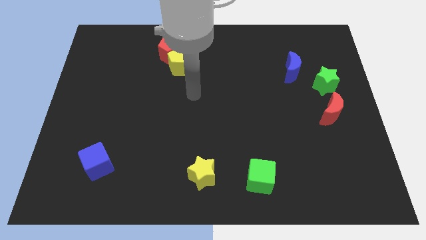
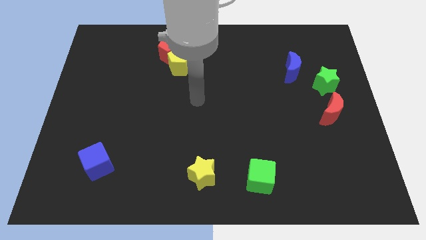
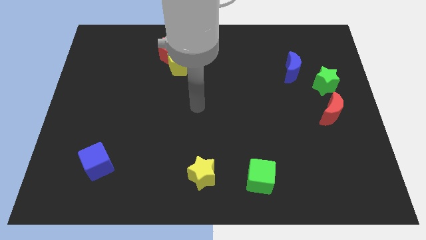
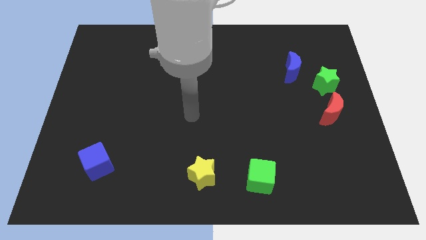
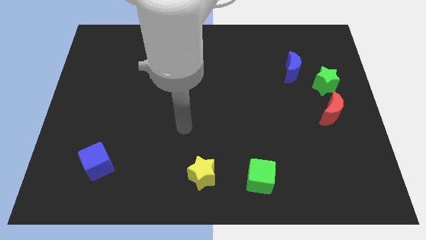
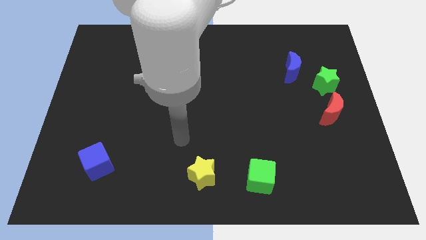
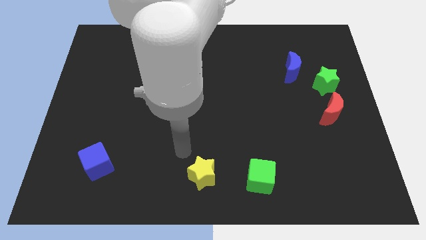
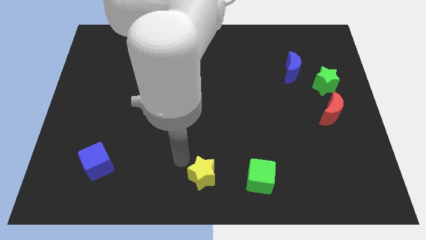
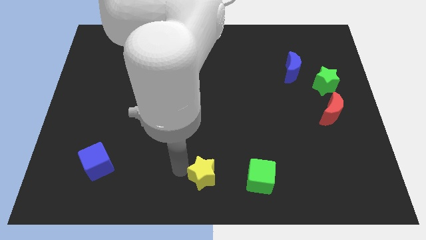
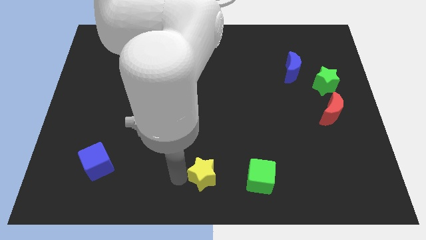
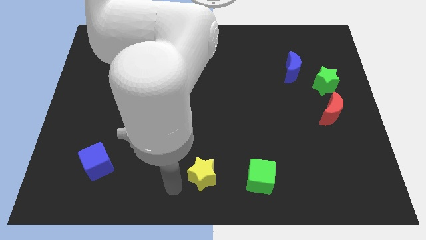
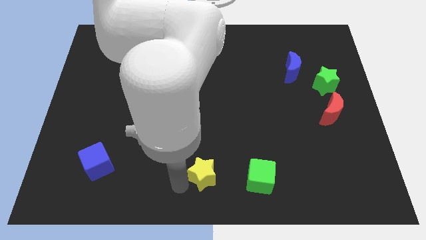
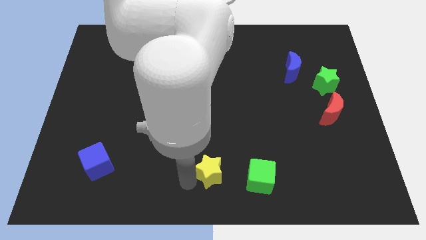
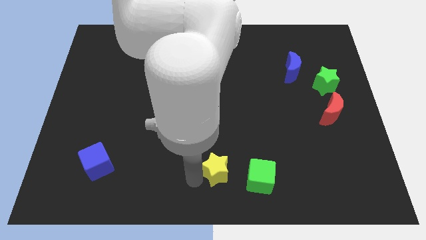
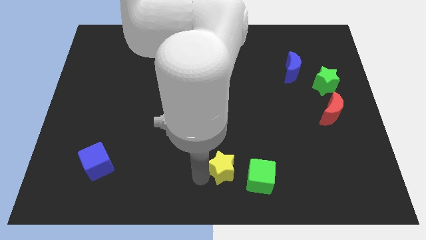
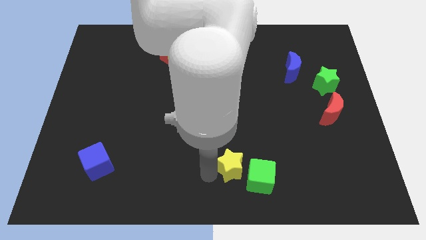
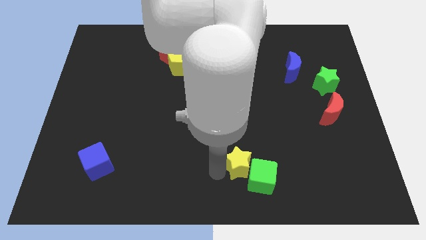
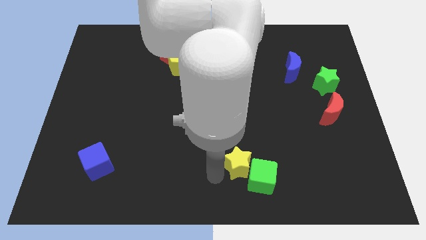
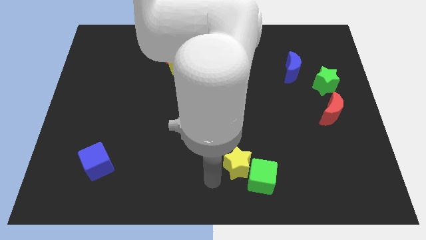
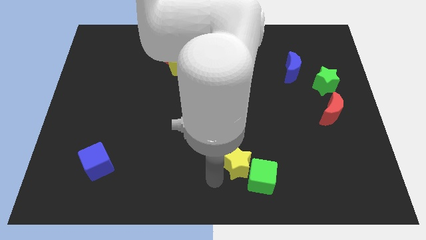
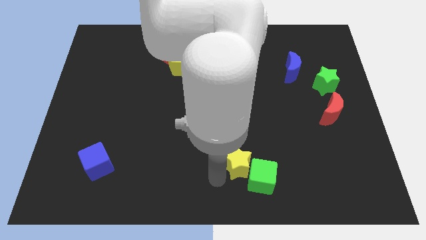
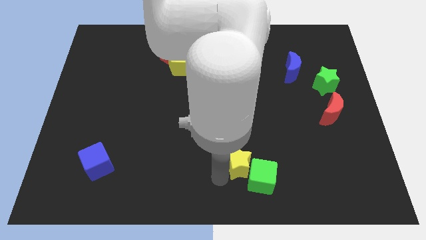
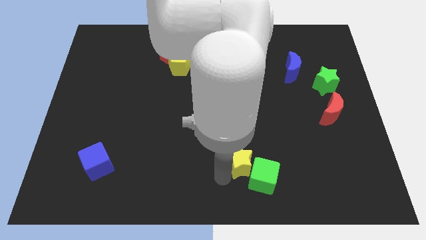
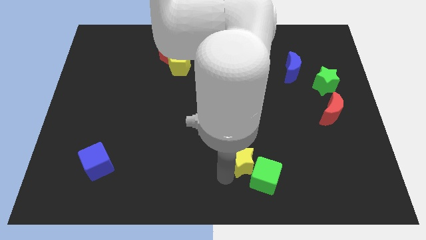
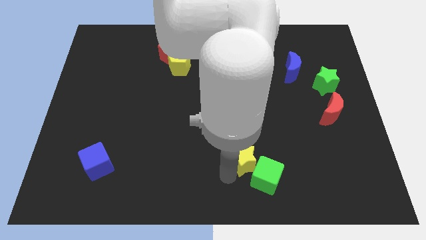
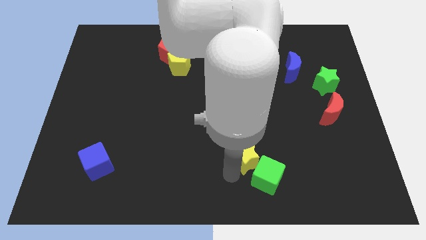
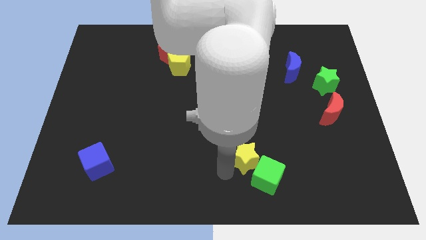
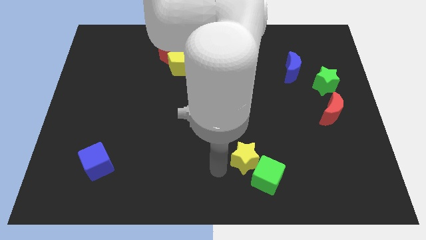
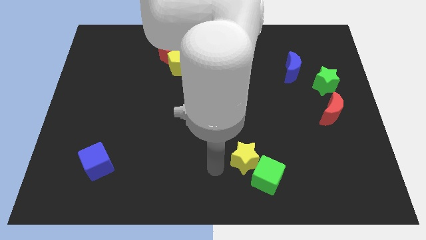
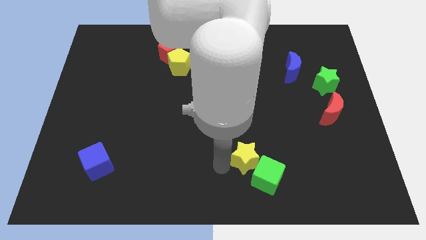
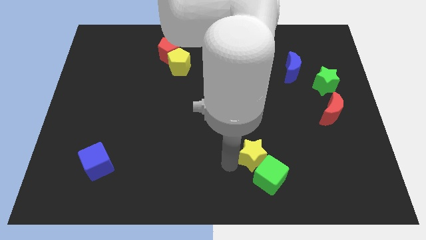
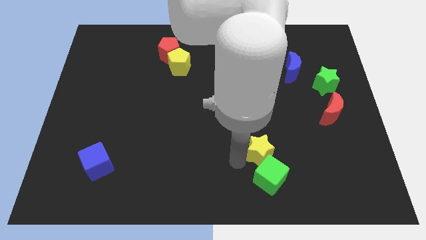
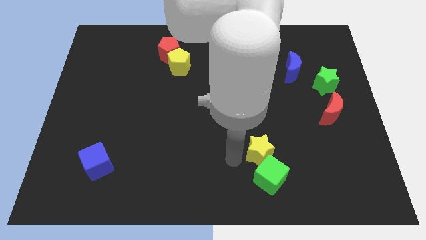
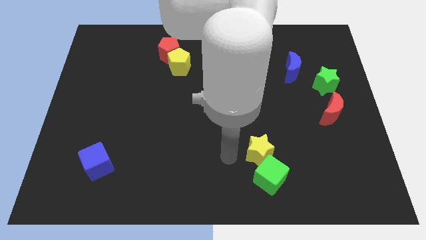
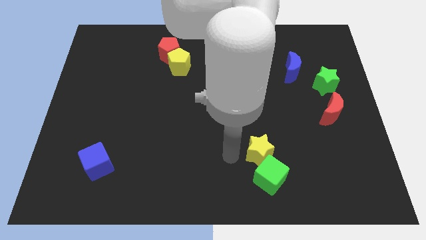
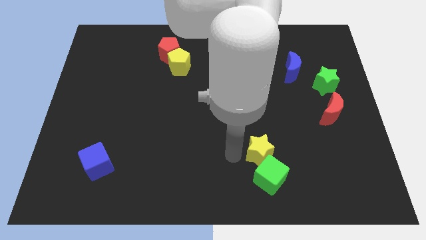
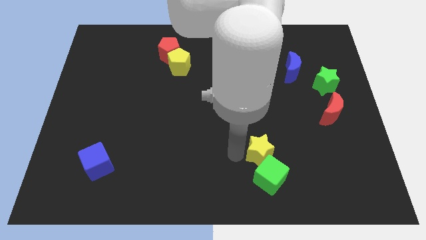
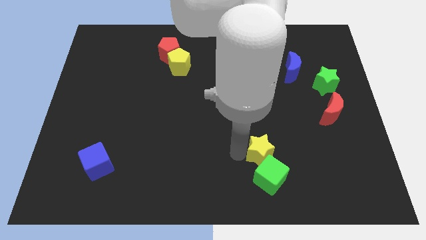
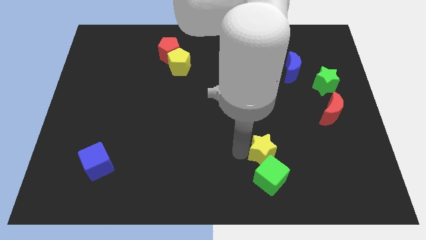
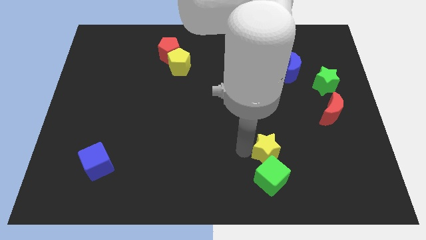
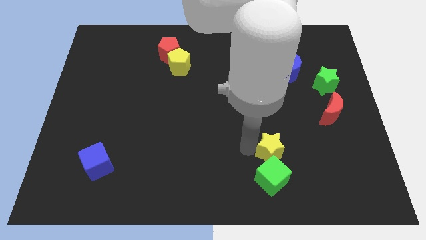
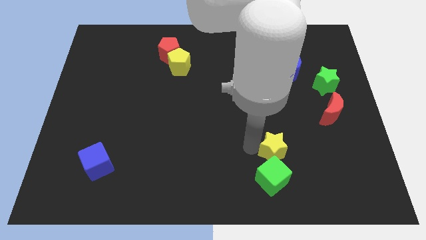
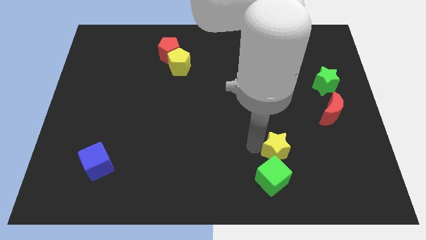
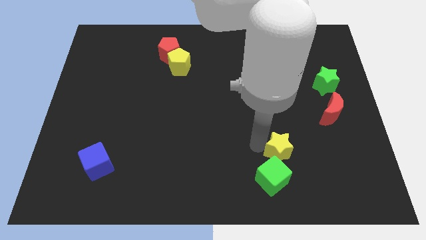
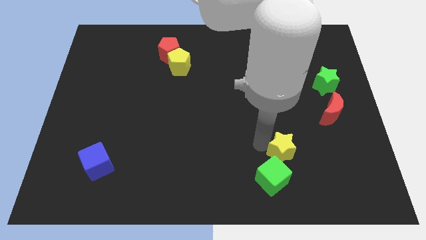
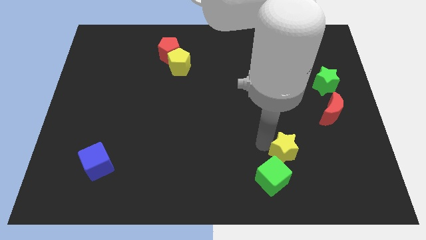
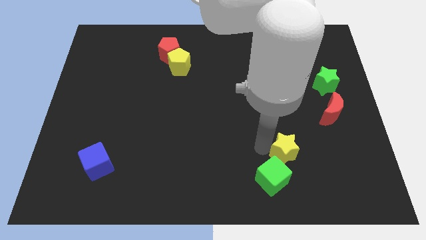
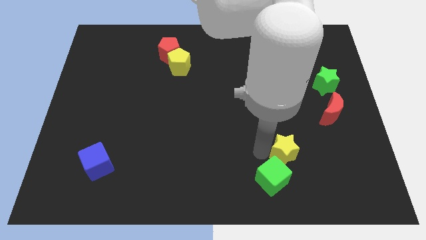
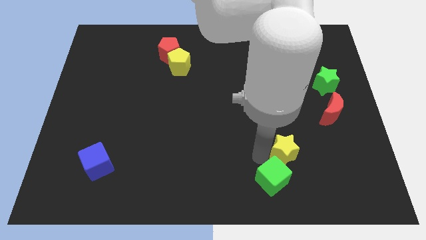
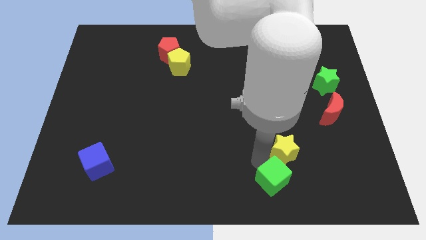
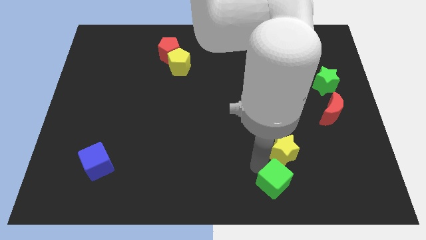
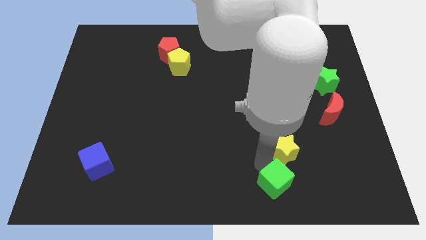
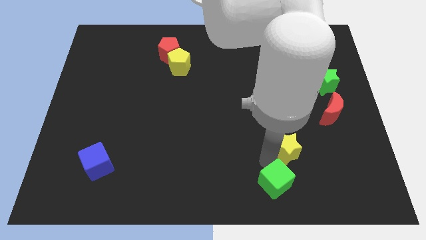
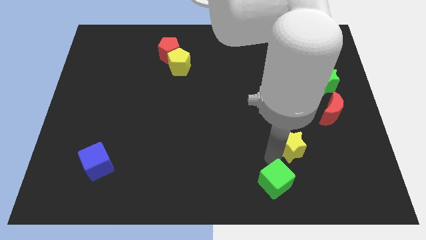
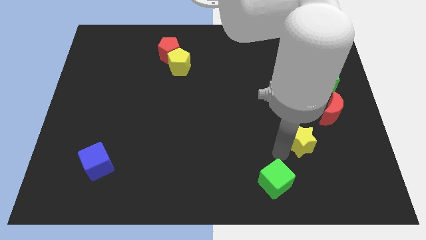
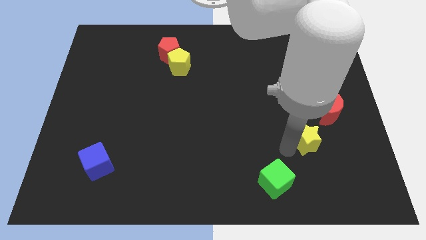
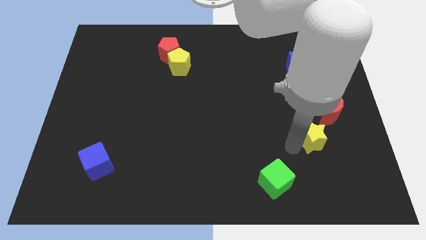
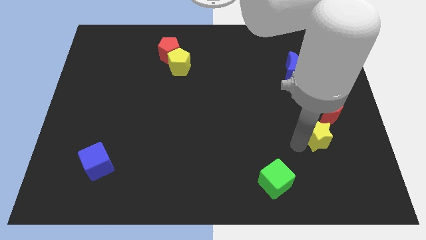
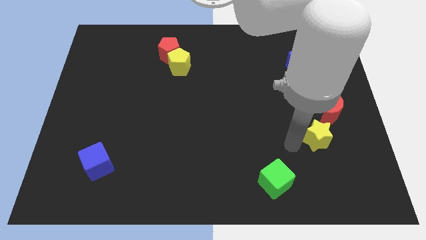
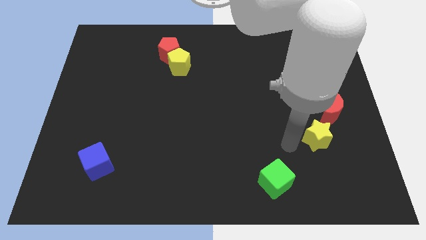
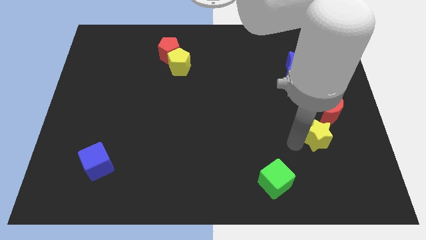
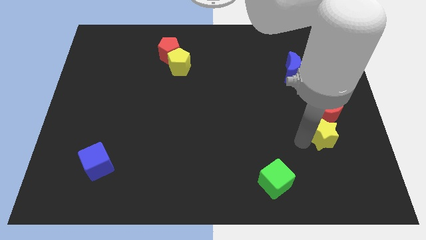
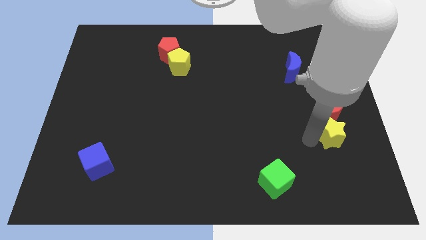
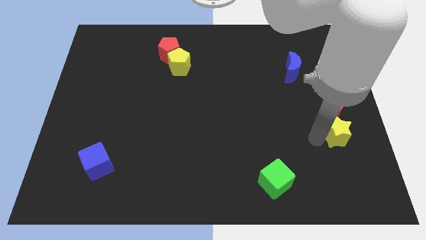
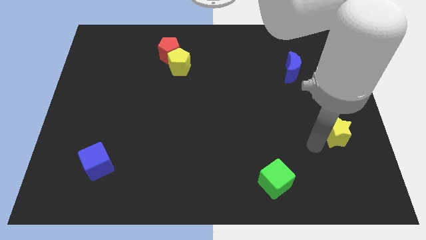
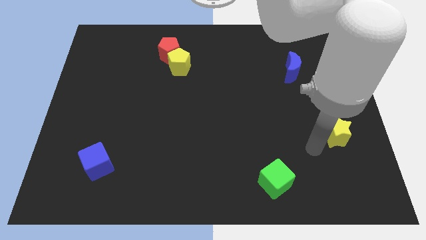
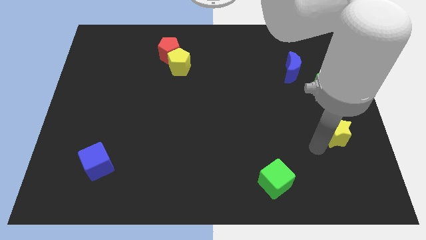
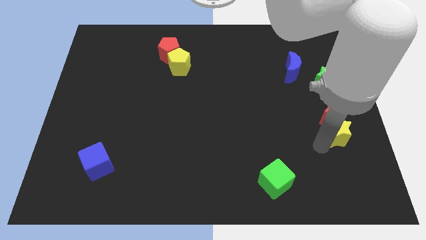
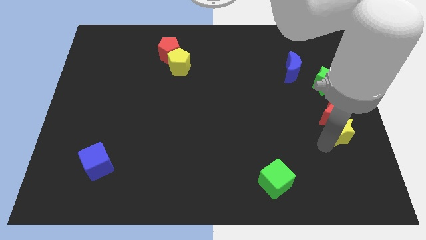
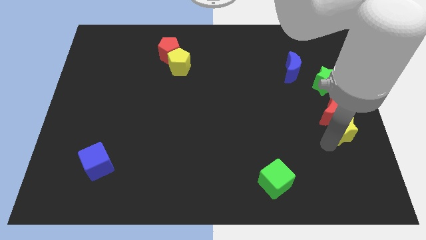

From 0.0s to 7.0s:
put the yellow star to the right side

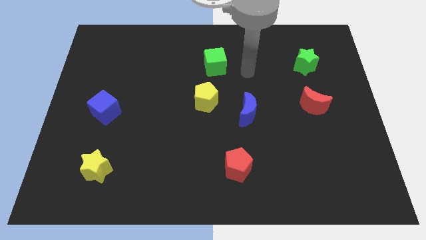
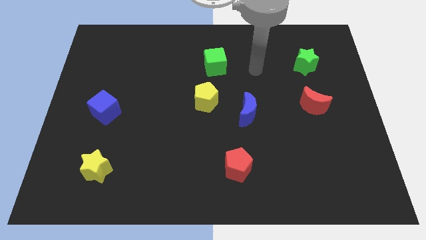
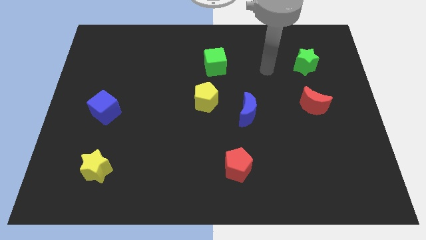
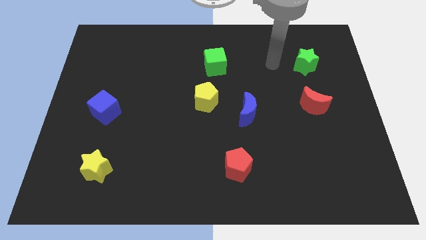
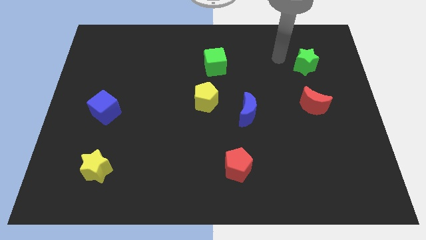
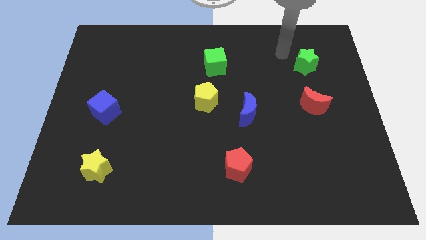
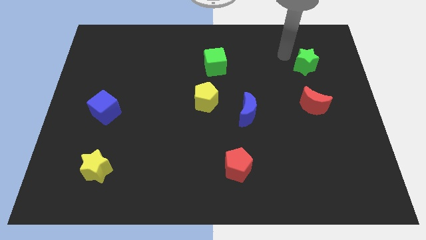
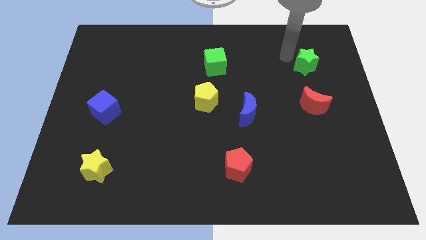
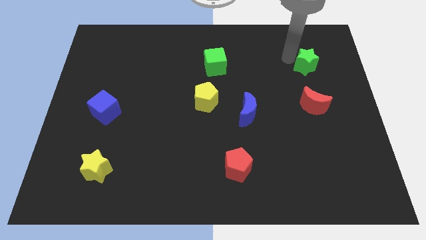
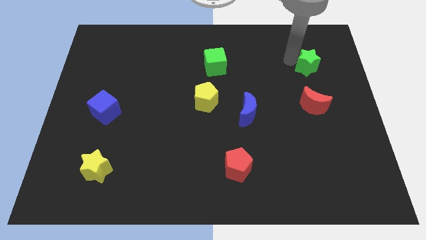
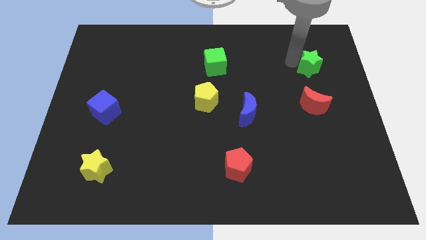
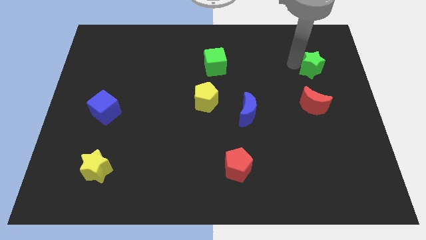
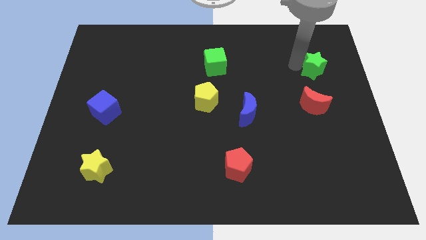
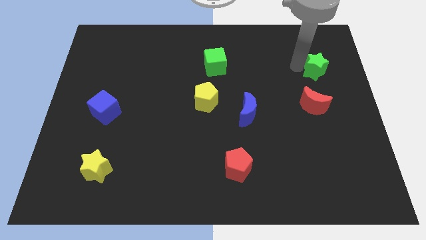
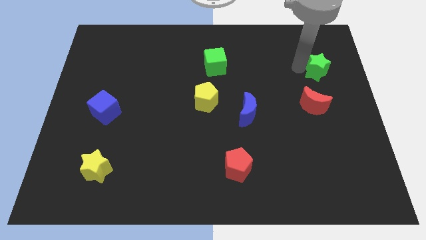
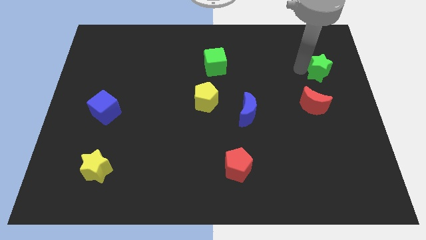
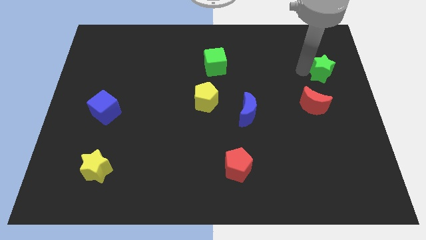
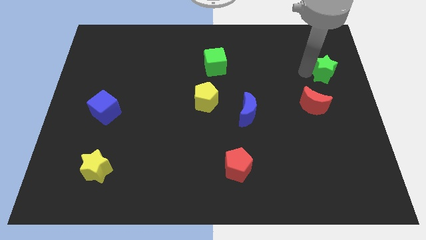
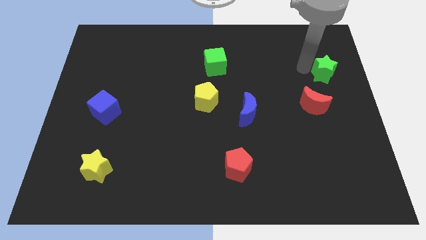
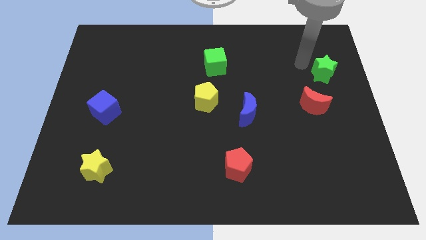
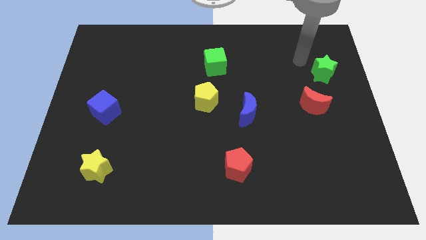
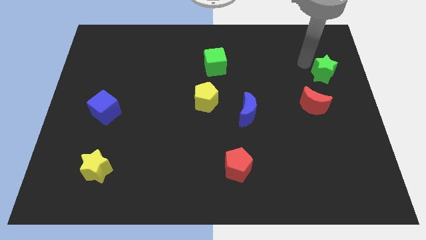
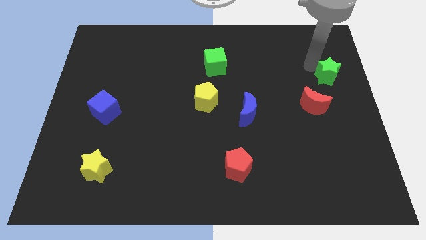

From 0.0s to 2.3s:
put the green star to the right side of the board
